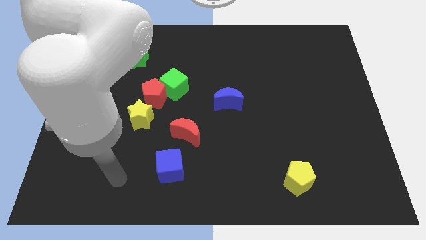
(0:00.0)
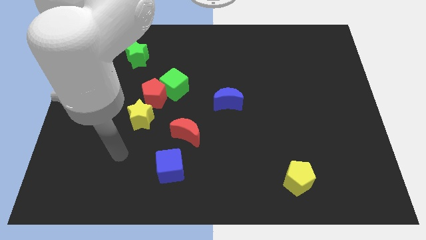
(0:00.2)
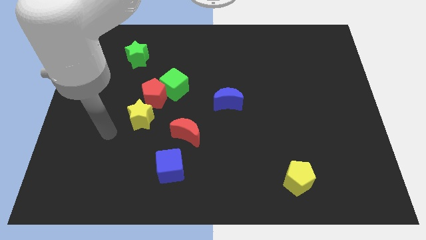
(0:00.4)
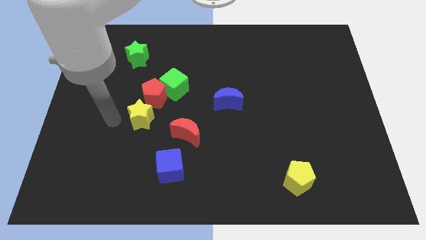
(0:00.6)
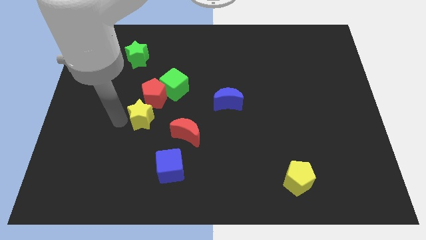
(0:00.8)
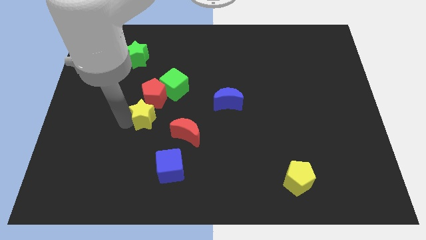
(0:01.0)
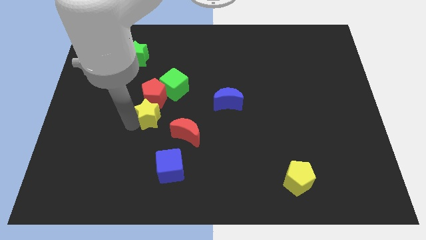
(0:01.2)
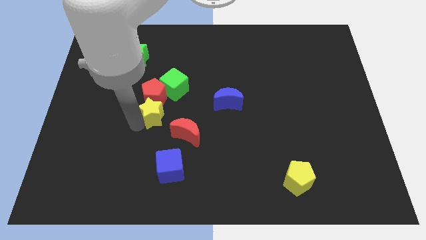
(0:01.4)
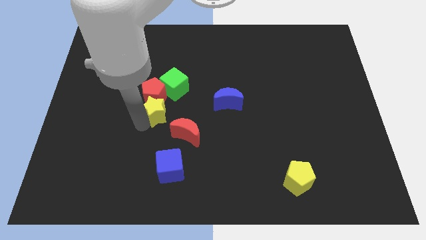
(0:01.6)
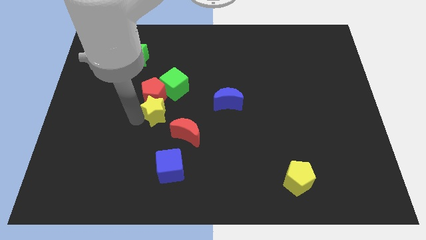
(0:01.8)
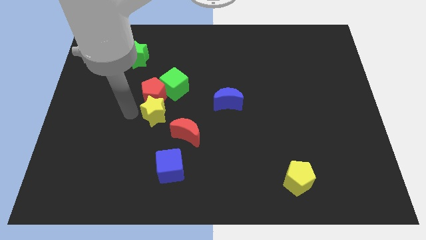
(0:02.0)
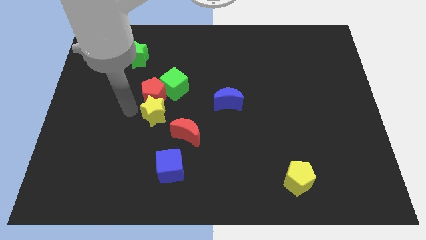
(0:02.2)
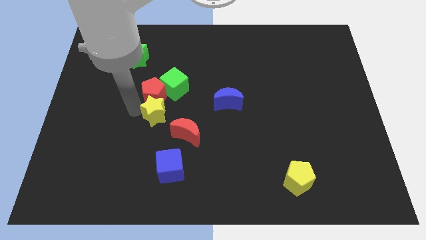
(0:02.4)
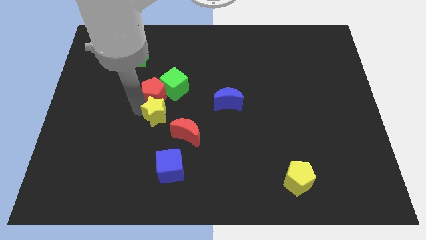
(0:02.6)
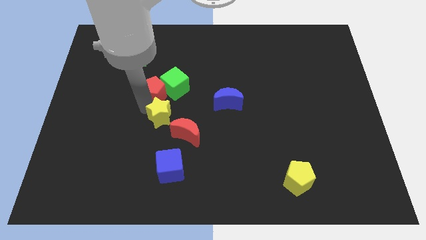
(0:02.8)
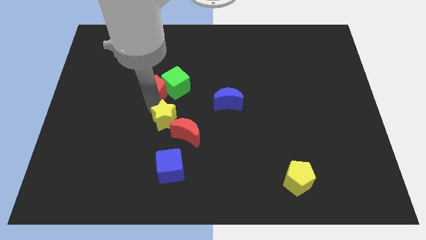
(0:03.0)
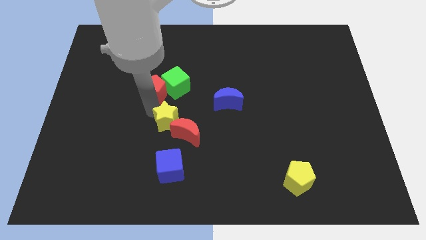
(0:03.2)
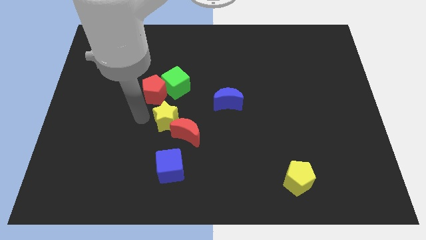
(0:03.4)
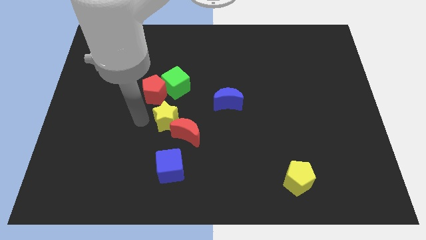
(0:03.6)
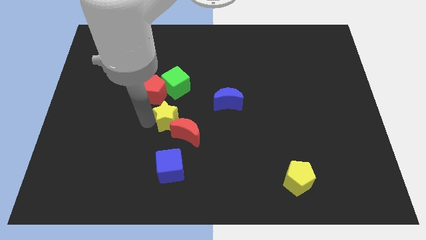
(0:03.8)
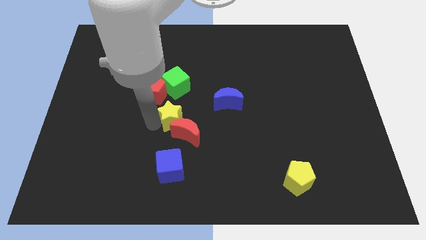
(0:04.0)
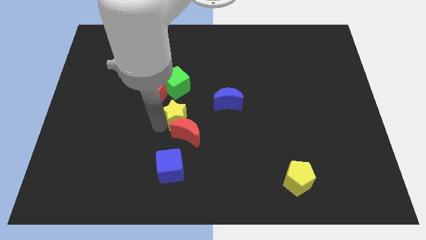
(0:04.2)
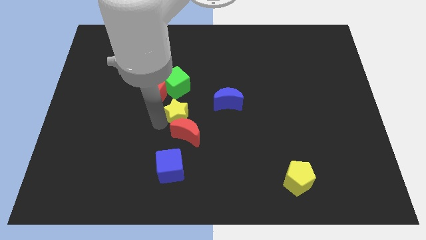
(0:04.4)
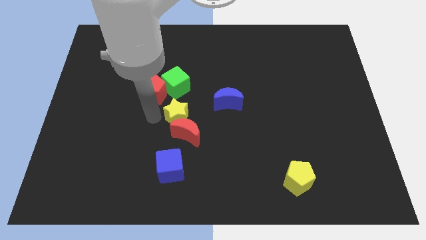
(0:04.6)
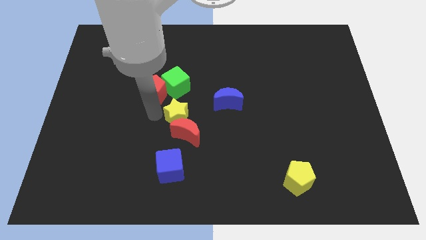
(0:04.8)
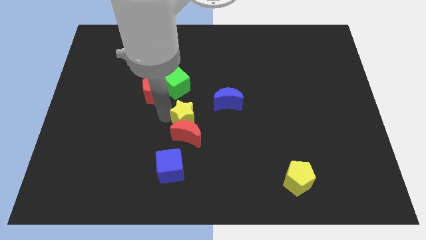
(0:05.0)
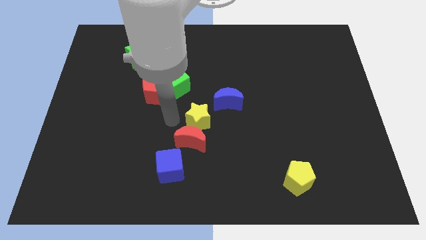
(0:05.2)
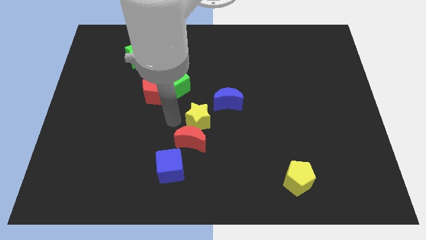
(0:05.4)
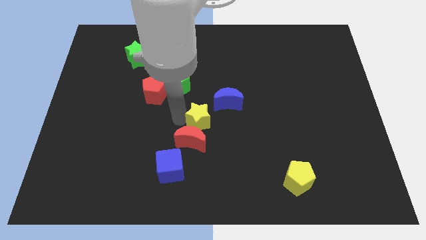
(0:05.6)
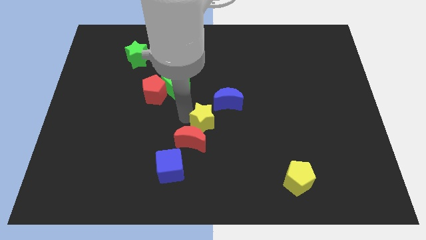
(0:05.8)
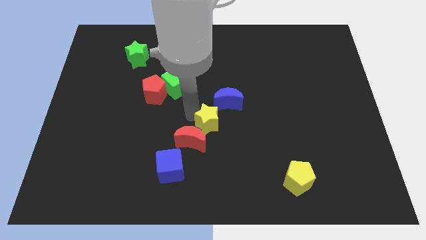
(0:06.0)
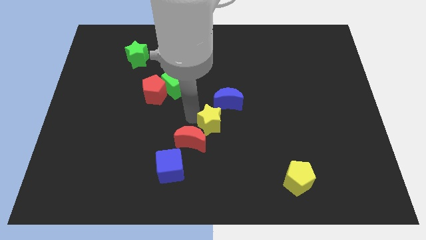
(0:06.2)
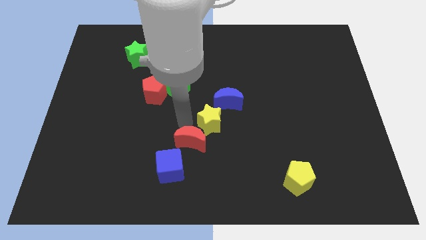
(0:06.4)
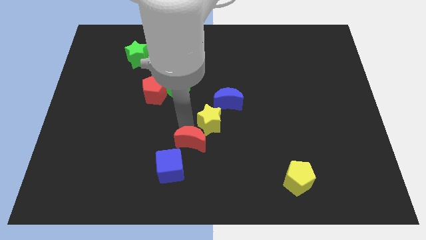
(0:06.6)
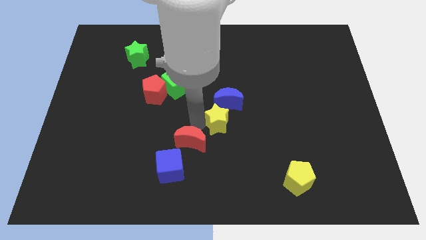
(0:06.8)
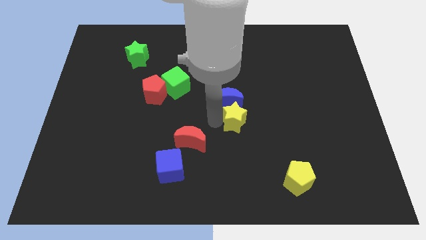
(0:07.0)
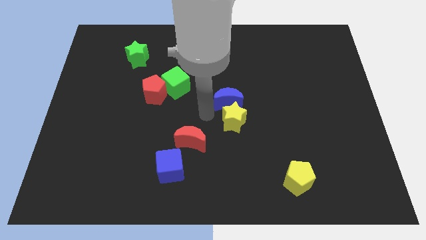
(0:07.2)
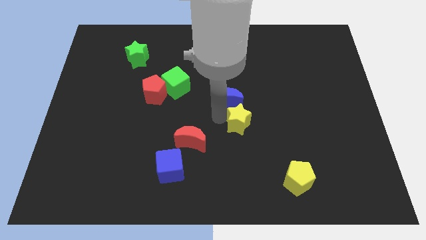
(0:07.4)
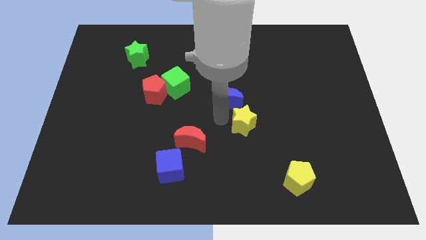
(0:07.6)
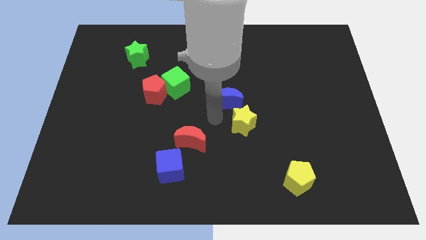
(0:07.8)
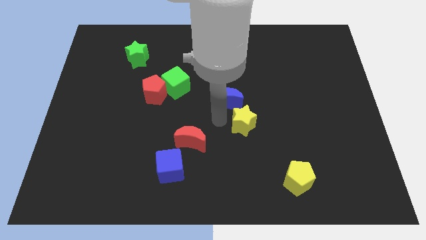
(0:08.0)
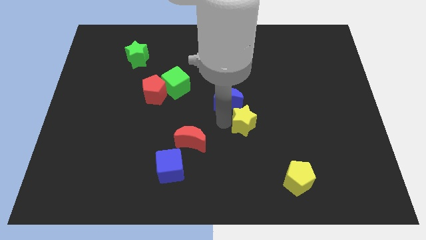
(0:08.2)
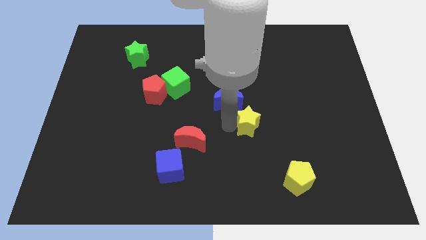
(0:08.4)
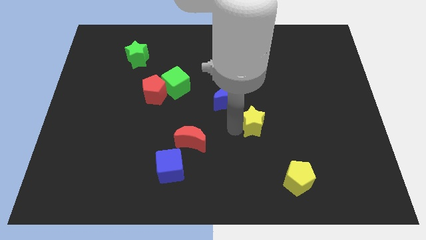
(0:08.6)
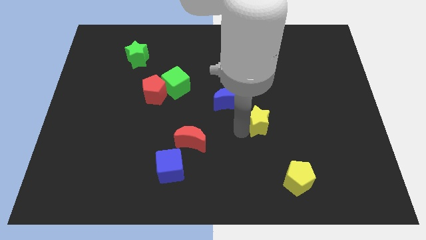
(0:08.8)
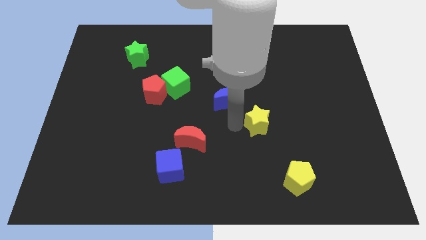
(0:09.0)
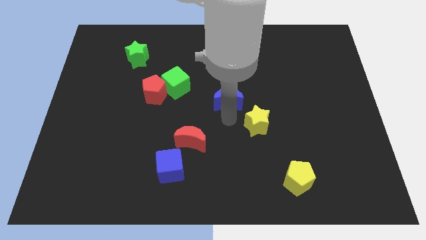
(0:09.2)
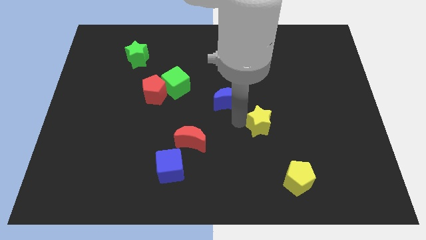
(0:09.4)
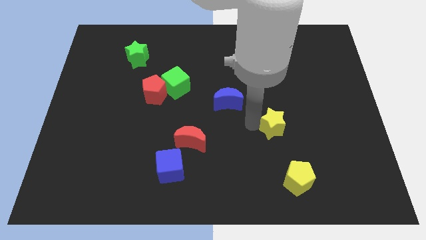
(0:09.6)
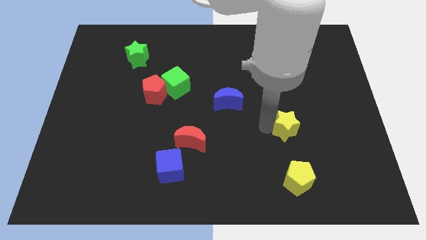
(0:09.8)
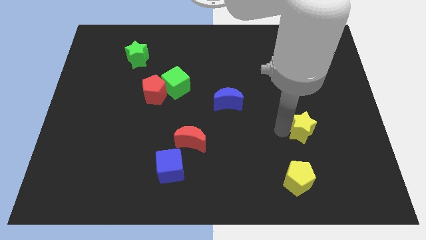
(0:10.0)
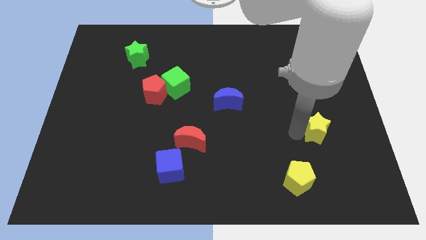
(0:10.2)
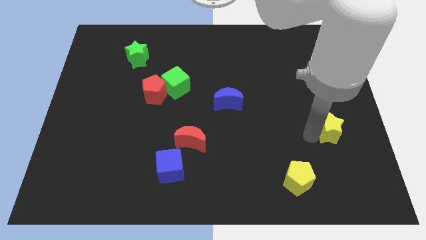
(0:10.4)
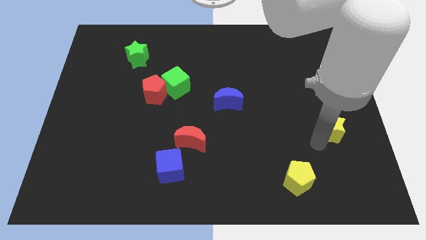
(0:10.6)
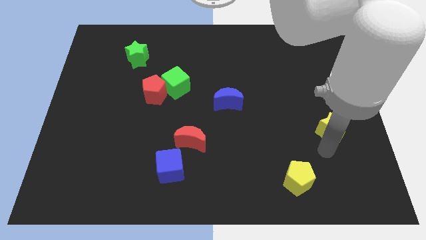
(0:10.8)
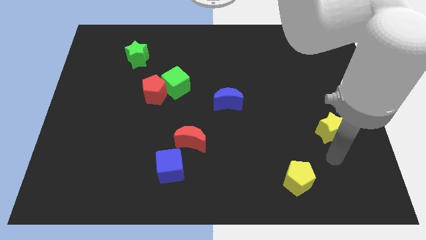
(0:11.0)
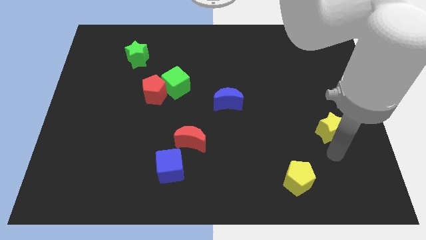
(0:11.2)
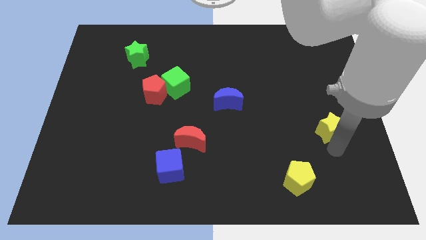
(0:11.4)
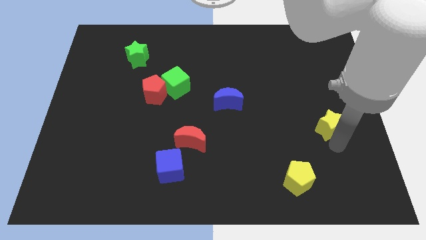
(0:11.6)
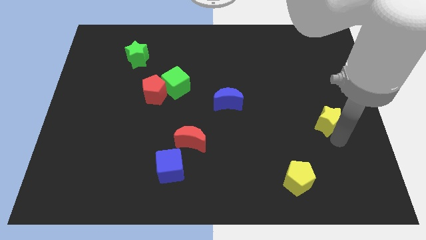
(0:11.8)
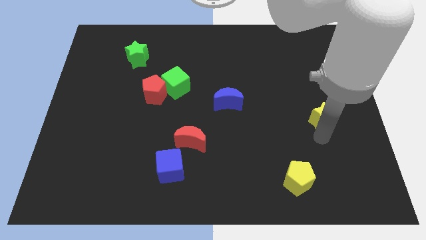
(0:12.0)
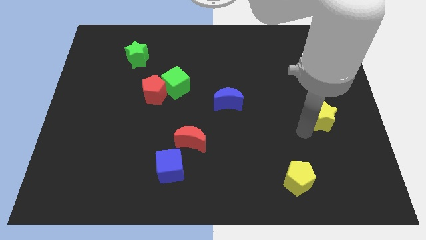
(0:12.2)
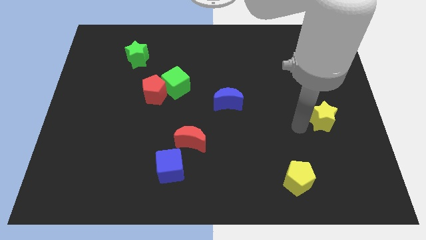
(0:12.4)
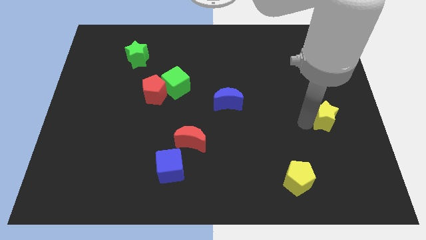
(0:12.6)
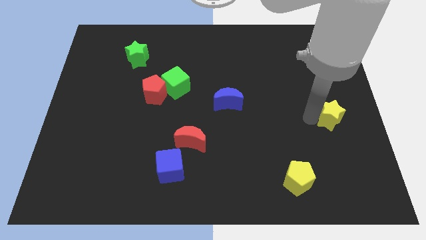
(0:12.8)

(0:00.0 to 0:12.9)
push the yellow star to the right side
